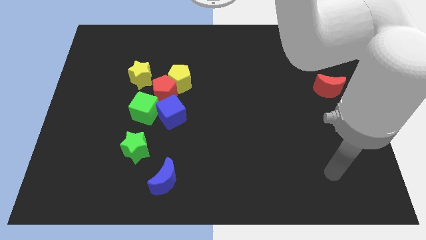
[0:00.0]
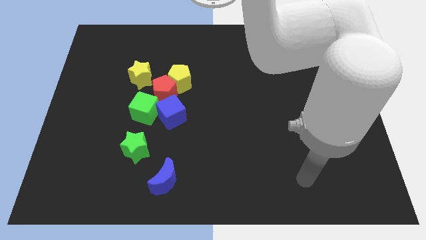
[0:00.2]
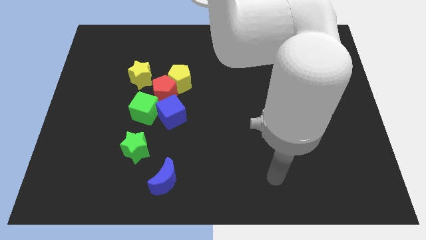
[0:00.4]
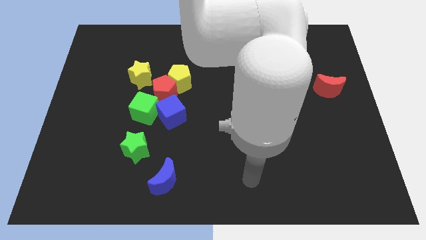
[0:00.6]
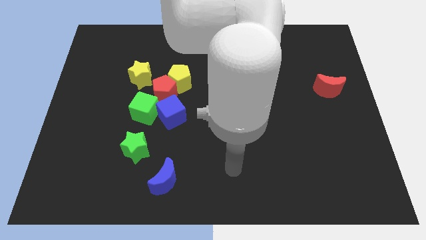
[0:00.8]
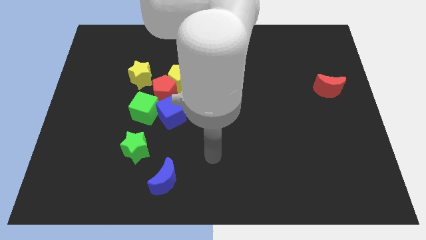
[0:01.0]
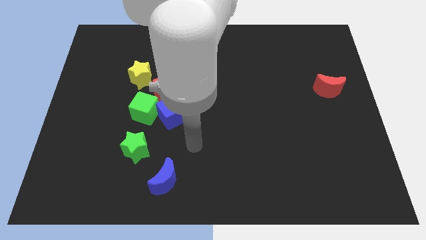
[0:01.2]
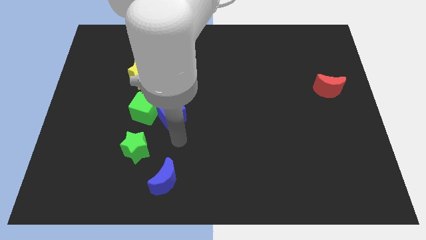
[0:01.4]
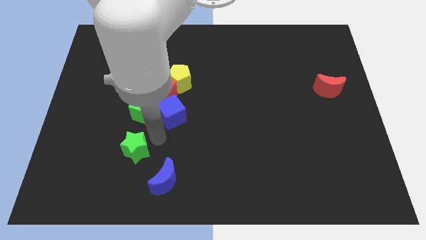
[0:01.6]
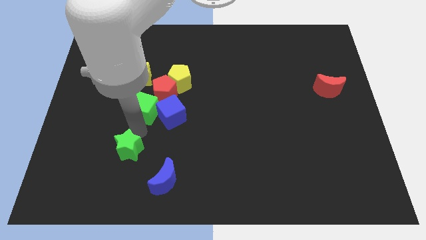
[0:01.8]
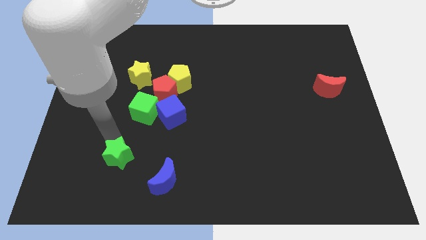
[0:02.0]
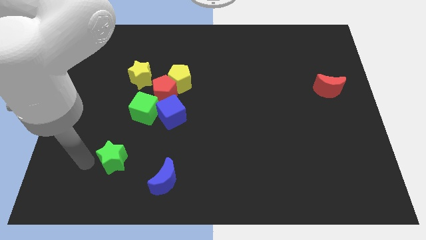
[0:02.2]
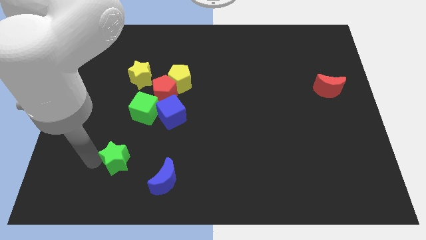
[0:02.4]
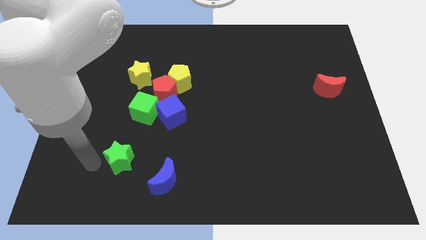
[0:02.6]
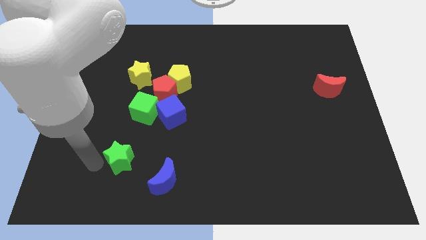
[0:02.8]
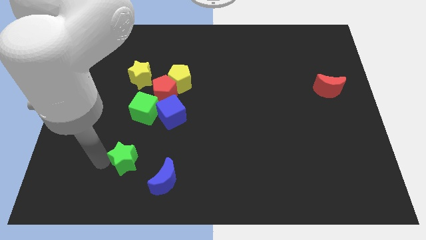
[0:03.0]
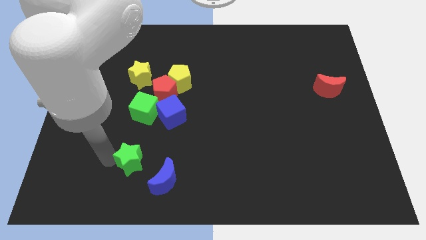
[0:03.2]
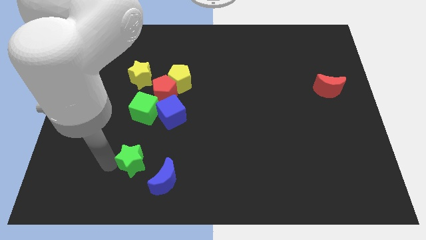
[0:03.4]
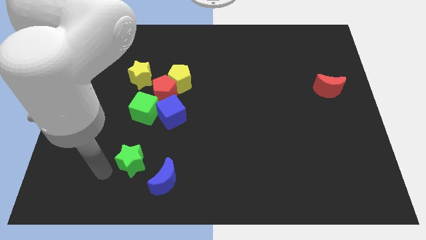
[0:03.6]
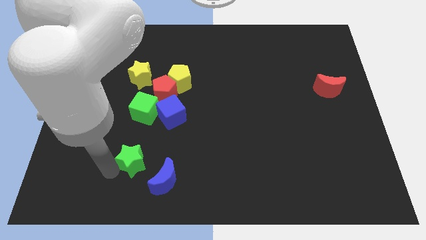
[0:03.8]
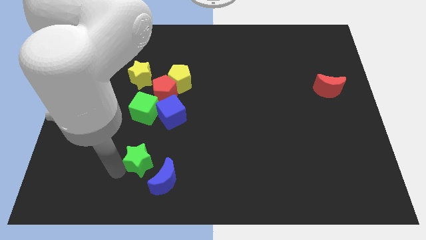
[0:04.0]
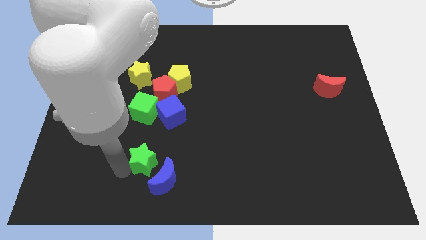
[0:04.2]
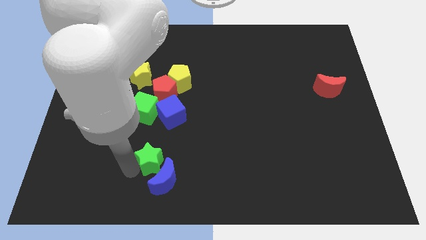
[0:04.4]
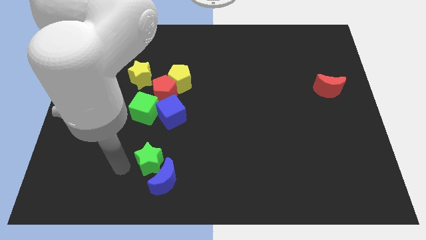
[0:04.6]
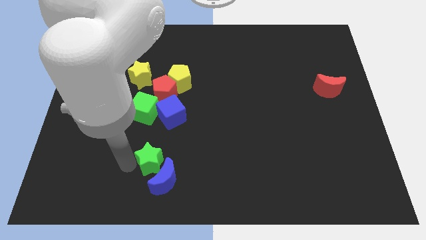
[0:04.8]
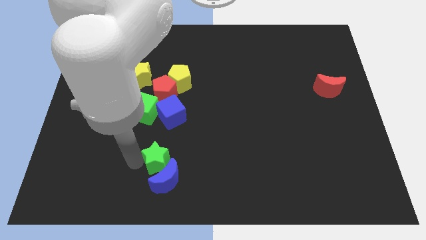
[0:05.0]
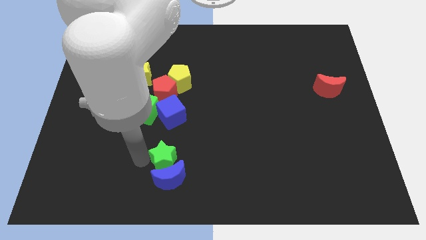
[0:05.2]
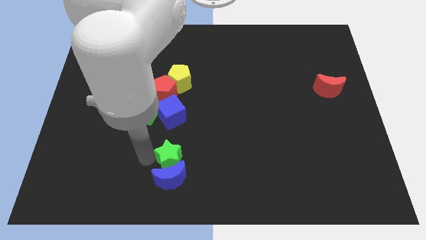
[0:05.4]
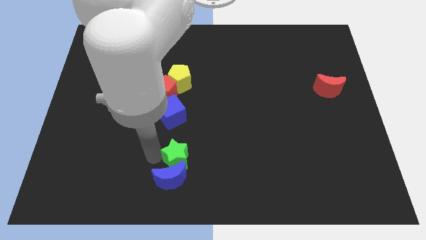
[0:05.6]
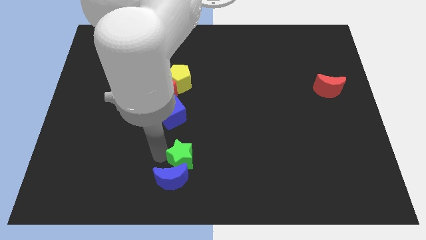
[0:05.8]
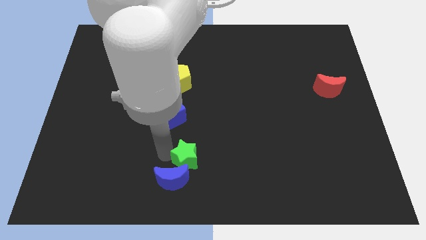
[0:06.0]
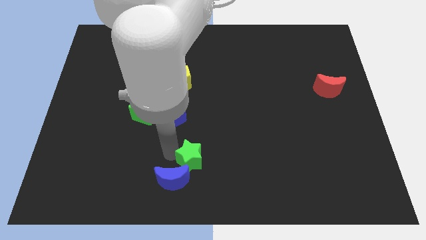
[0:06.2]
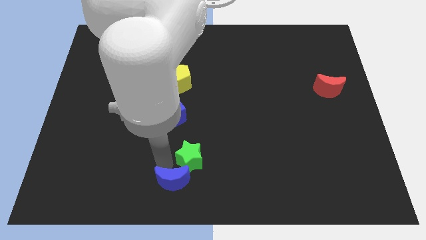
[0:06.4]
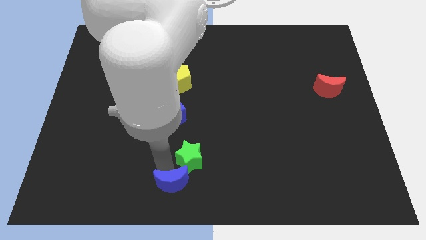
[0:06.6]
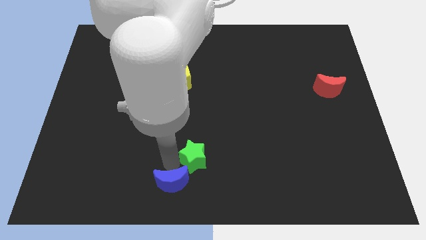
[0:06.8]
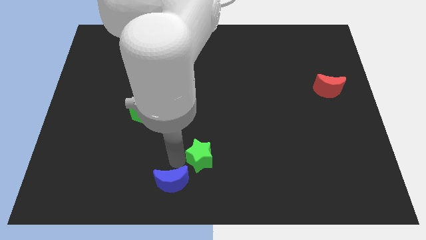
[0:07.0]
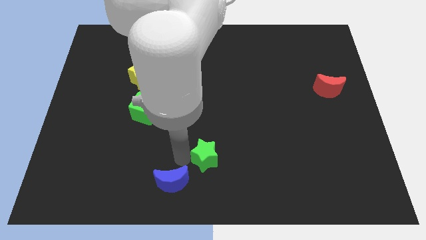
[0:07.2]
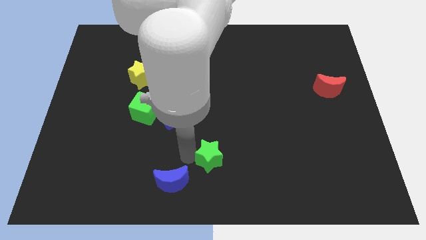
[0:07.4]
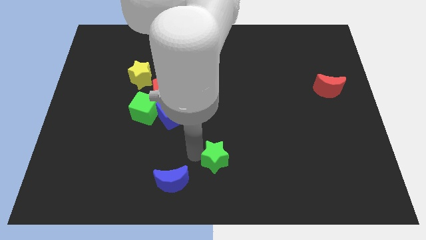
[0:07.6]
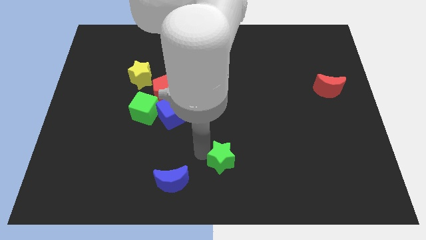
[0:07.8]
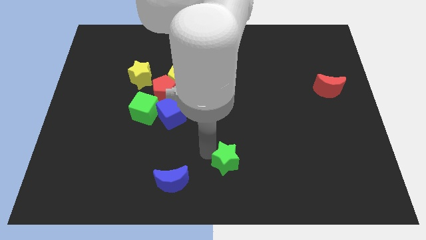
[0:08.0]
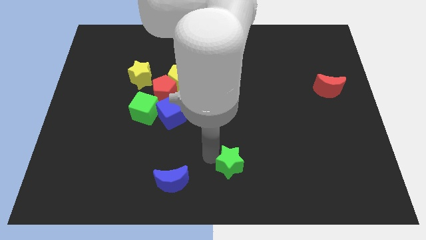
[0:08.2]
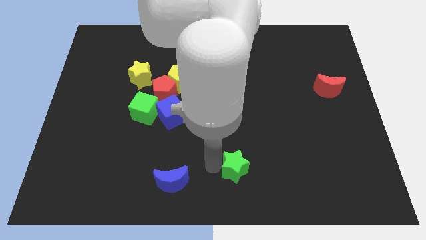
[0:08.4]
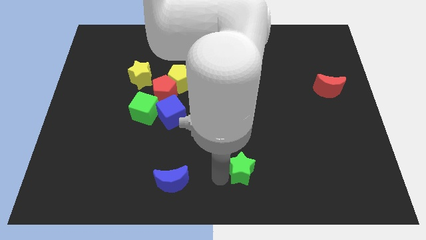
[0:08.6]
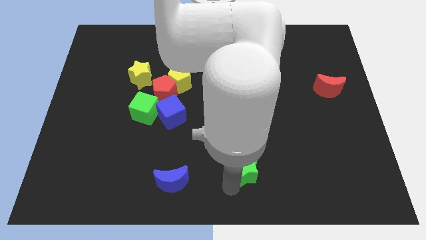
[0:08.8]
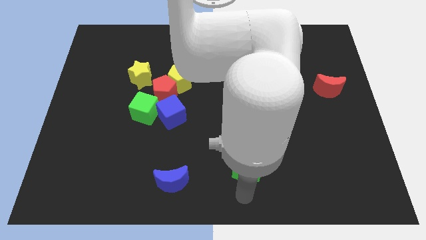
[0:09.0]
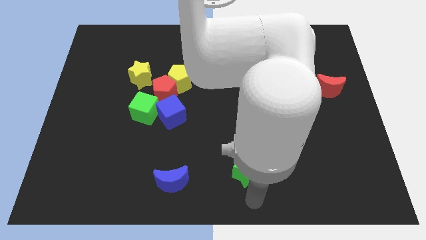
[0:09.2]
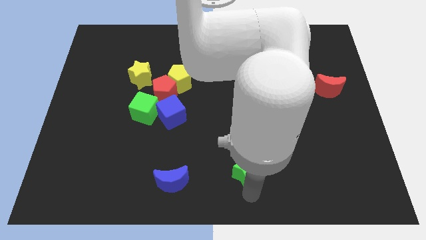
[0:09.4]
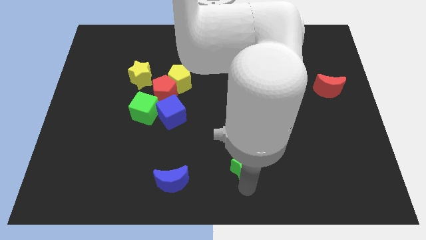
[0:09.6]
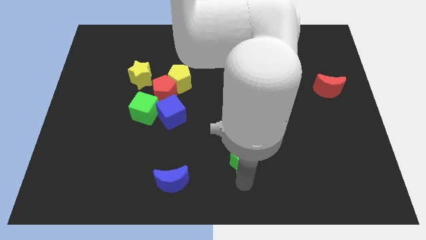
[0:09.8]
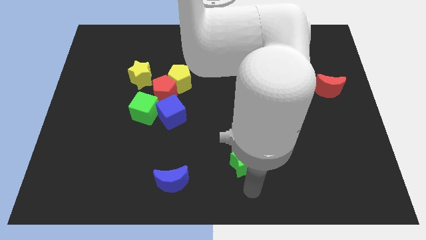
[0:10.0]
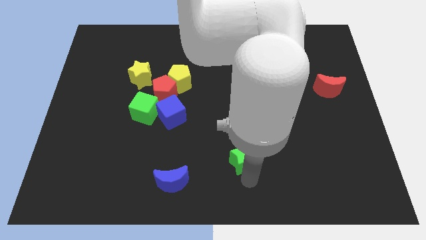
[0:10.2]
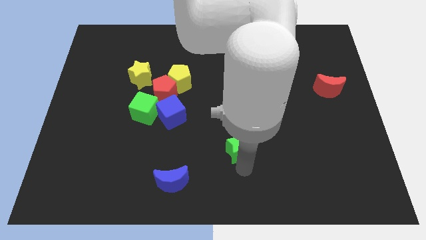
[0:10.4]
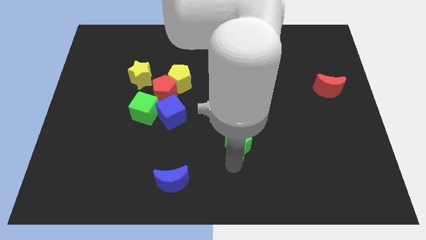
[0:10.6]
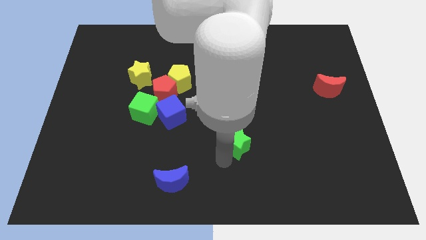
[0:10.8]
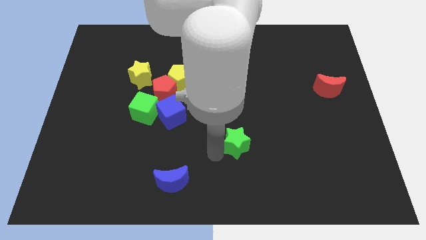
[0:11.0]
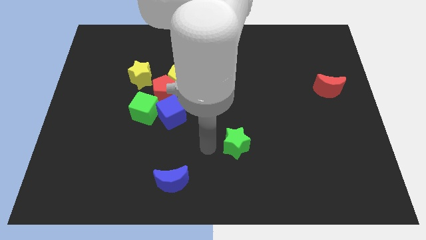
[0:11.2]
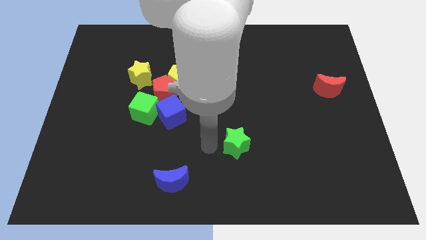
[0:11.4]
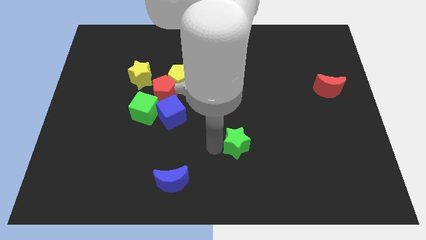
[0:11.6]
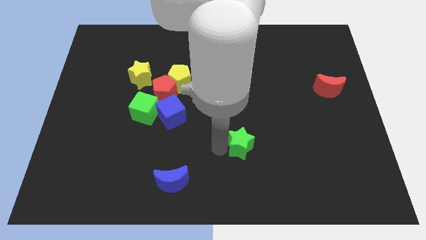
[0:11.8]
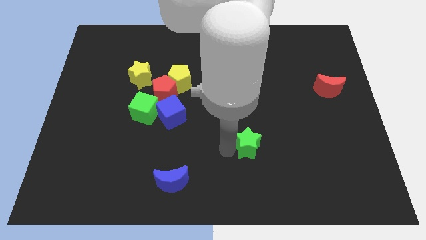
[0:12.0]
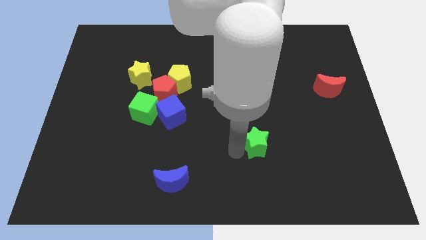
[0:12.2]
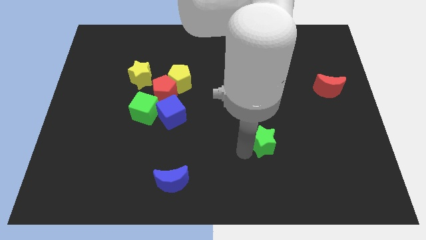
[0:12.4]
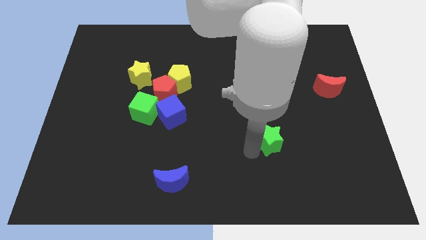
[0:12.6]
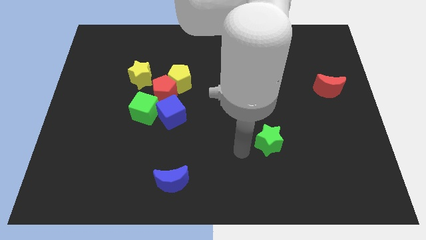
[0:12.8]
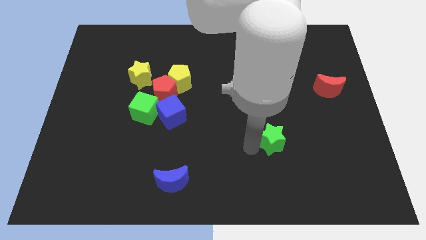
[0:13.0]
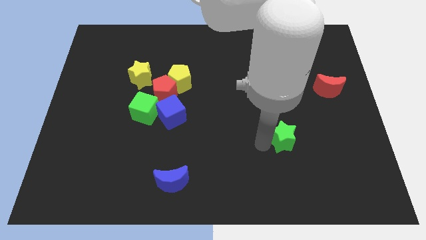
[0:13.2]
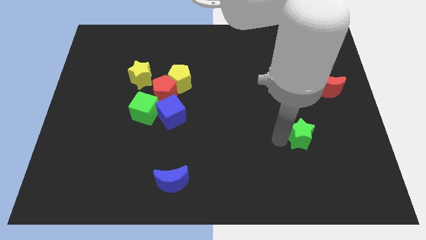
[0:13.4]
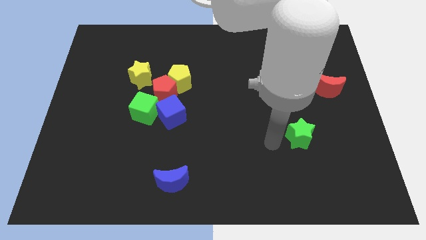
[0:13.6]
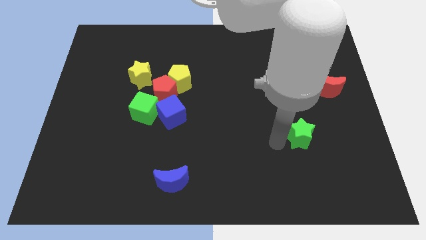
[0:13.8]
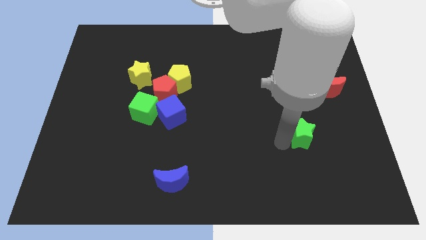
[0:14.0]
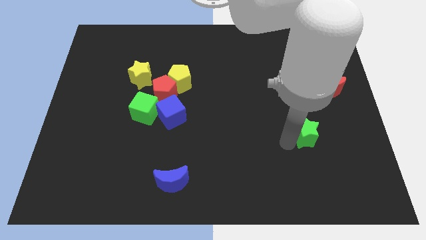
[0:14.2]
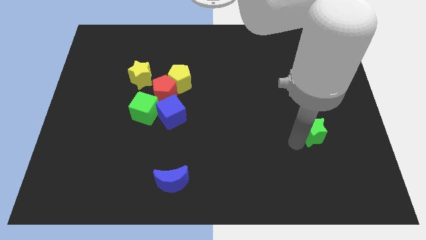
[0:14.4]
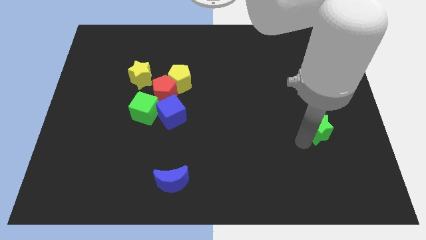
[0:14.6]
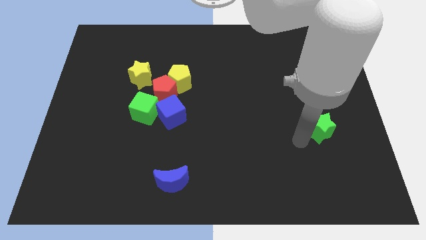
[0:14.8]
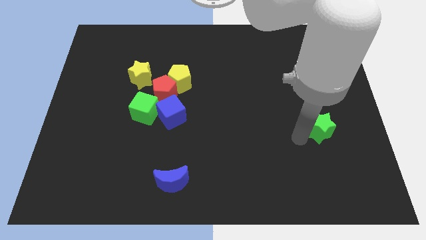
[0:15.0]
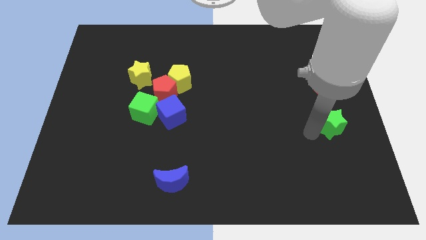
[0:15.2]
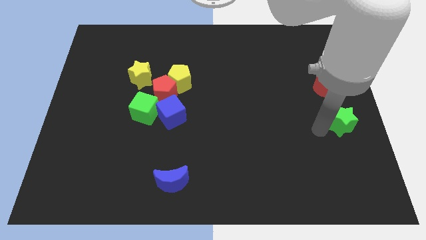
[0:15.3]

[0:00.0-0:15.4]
put the green star to the right side of the board
